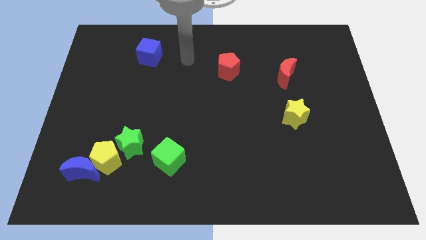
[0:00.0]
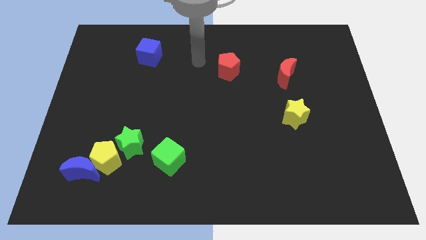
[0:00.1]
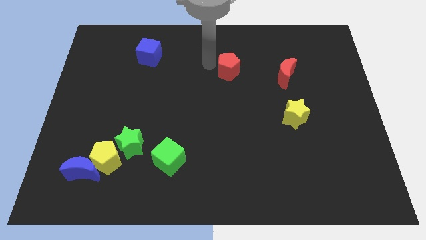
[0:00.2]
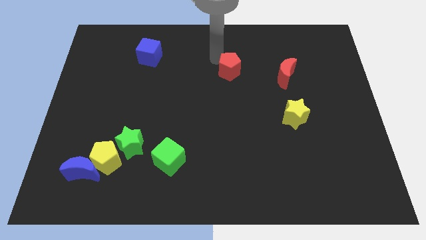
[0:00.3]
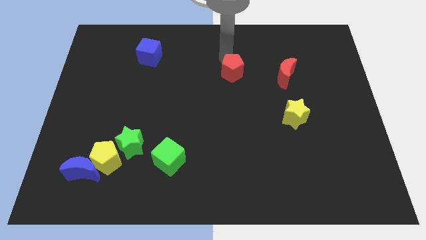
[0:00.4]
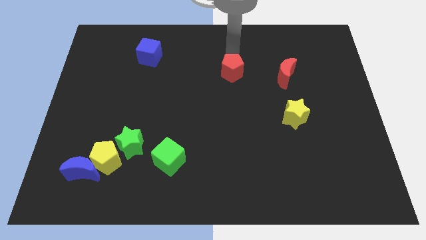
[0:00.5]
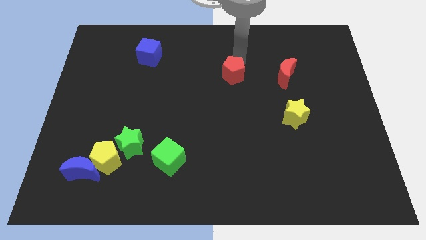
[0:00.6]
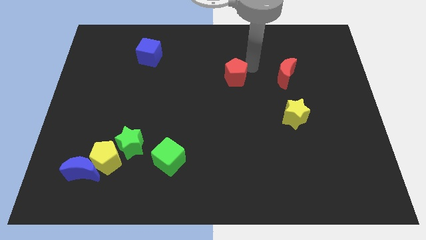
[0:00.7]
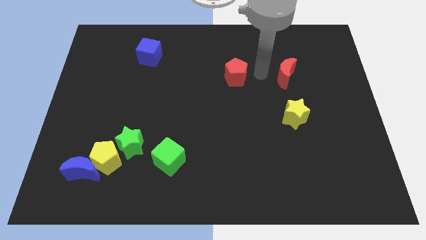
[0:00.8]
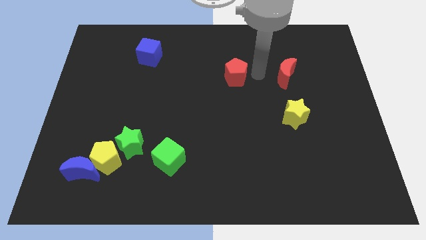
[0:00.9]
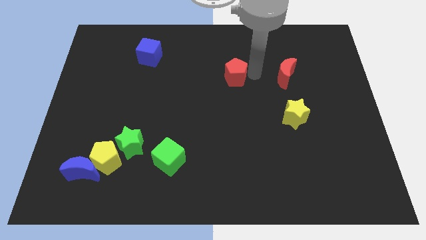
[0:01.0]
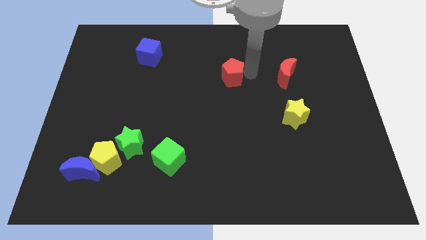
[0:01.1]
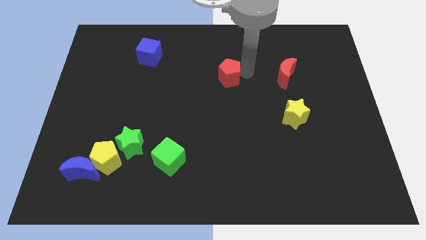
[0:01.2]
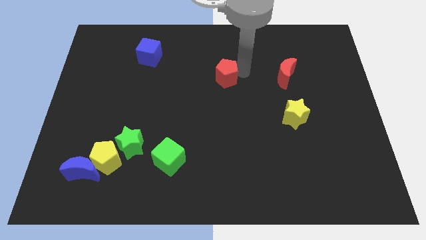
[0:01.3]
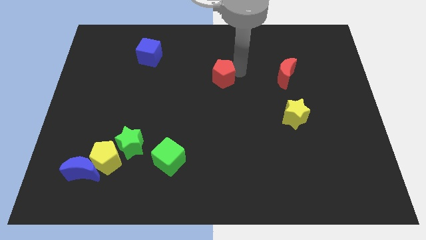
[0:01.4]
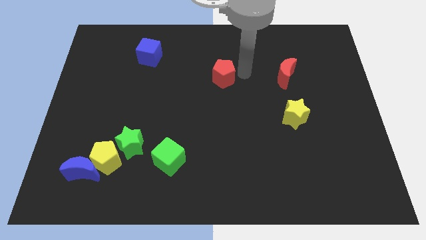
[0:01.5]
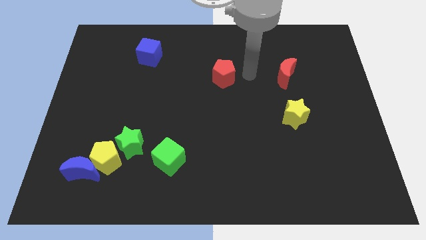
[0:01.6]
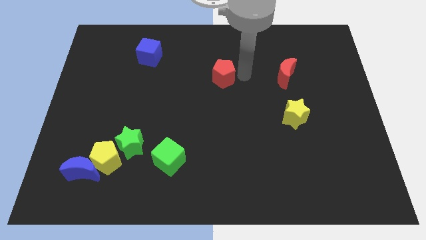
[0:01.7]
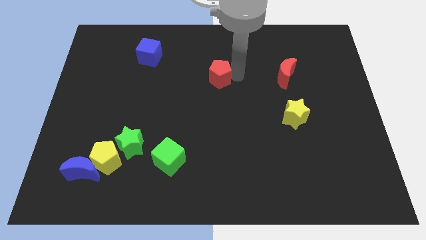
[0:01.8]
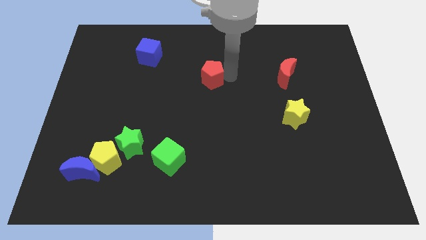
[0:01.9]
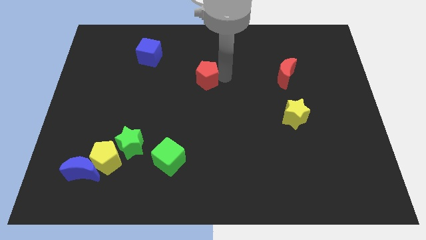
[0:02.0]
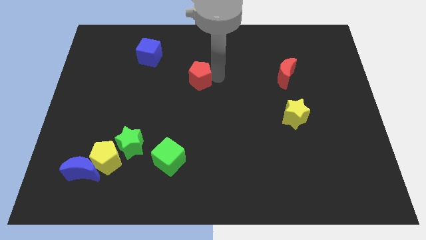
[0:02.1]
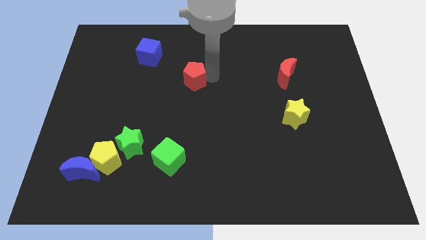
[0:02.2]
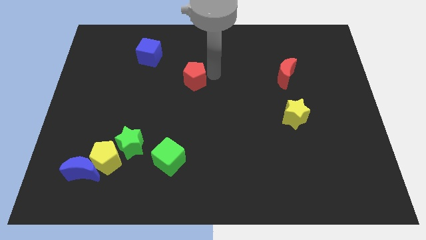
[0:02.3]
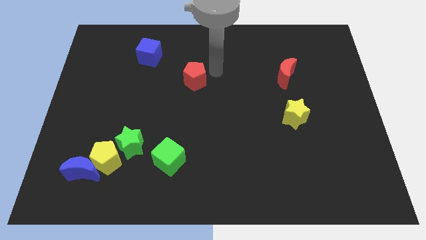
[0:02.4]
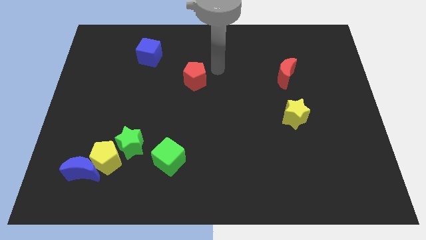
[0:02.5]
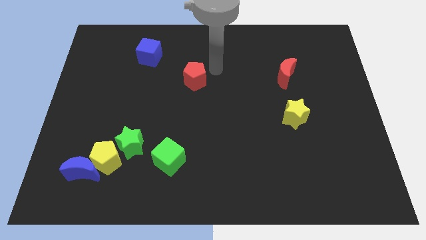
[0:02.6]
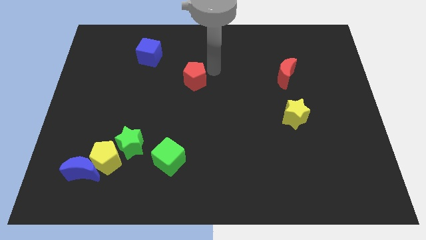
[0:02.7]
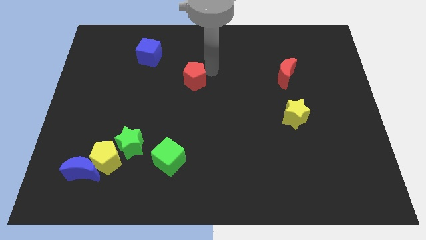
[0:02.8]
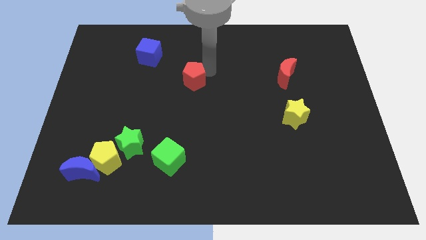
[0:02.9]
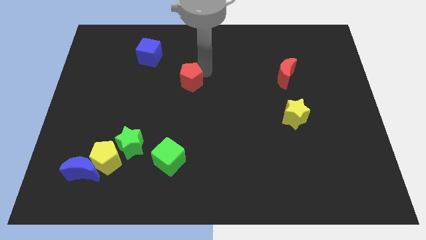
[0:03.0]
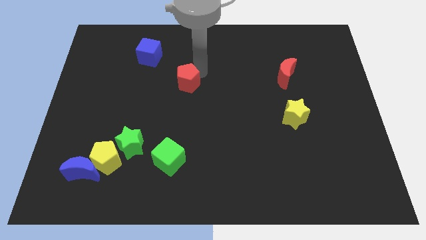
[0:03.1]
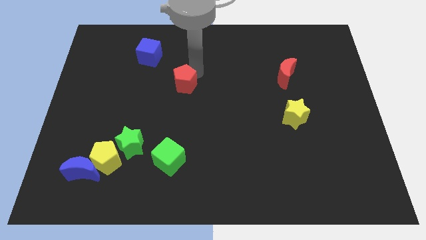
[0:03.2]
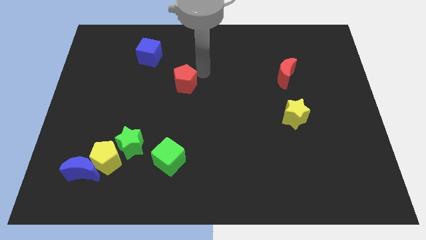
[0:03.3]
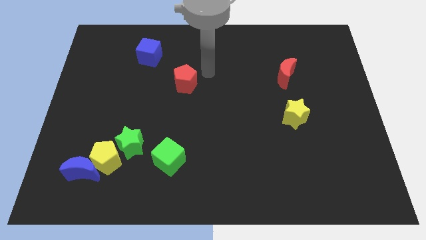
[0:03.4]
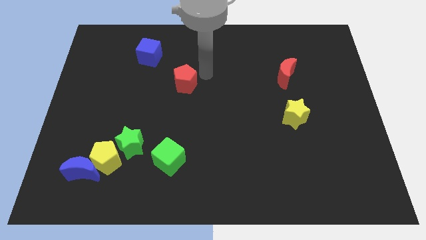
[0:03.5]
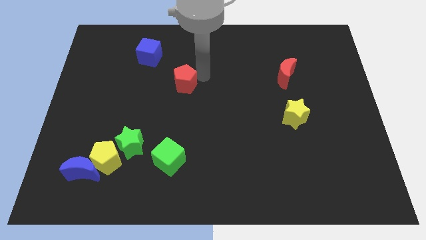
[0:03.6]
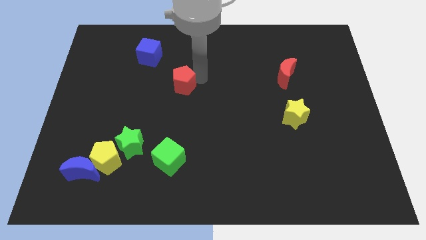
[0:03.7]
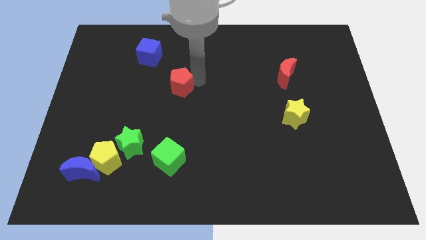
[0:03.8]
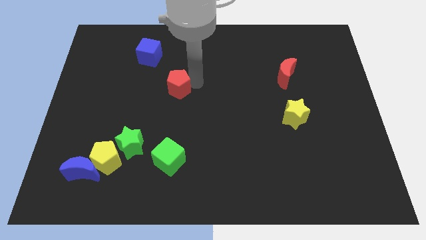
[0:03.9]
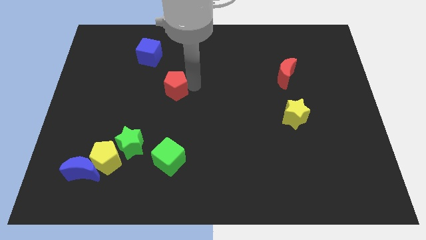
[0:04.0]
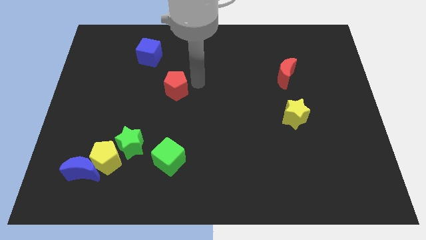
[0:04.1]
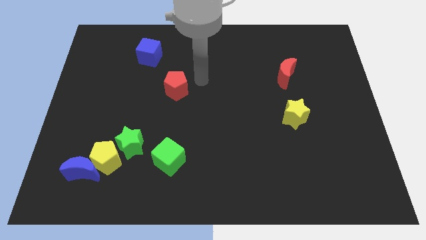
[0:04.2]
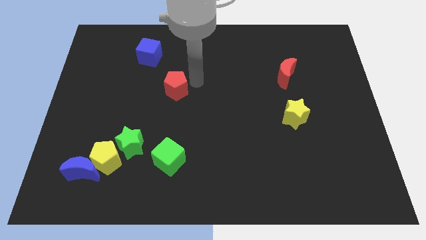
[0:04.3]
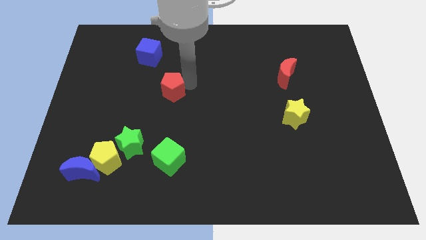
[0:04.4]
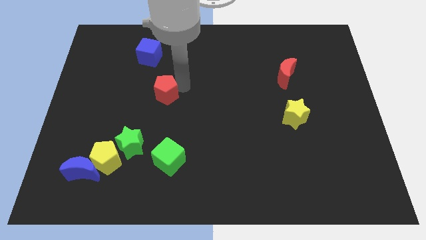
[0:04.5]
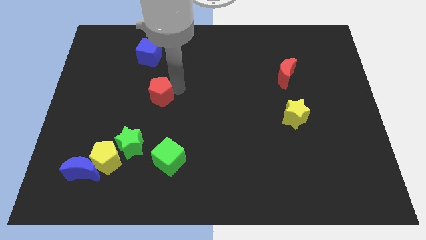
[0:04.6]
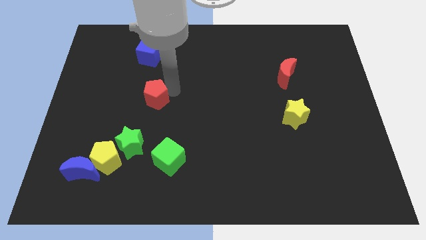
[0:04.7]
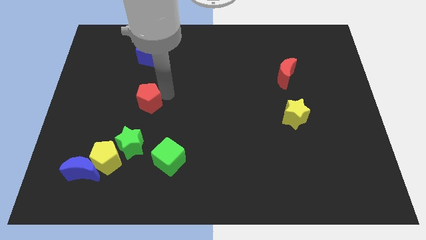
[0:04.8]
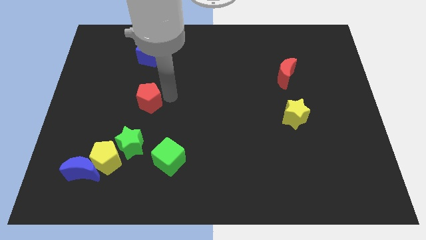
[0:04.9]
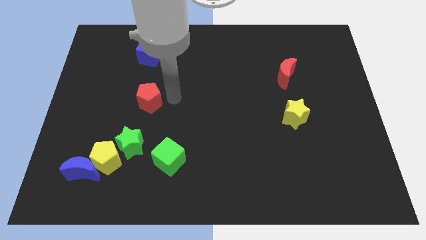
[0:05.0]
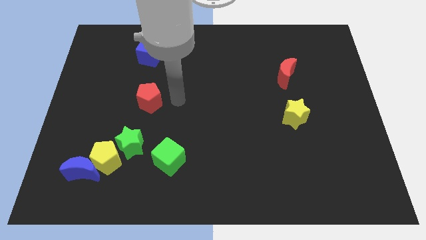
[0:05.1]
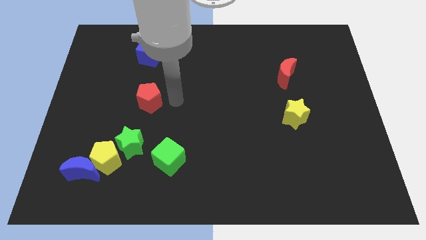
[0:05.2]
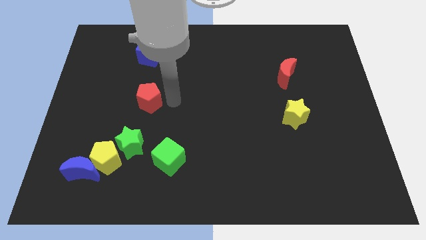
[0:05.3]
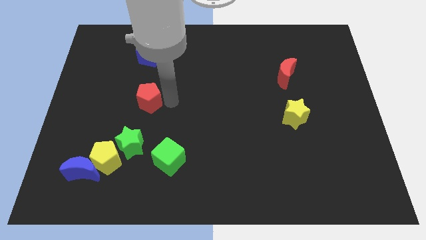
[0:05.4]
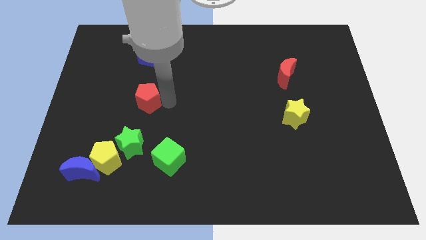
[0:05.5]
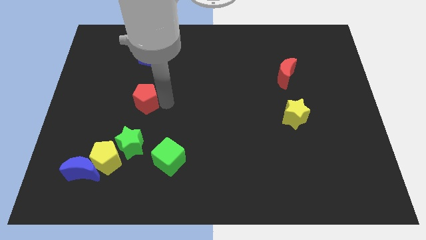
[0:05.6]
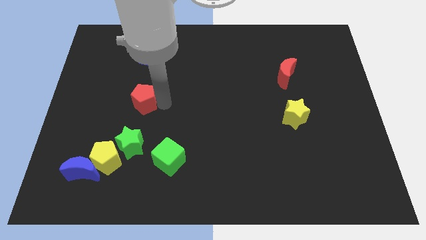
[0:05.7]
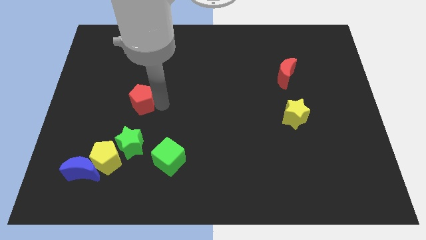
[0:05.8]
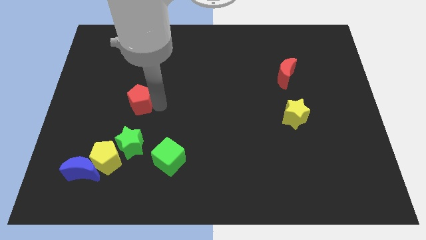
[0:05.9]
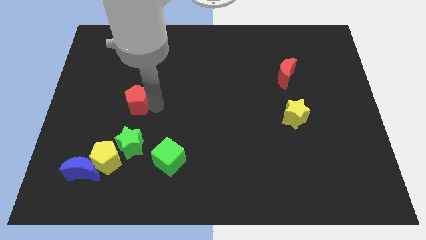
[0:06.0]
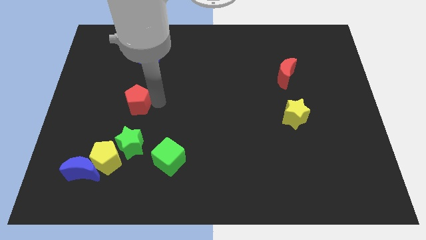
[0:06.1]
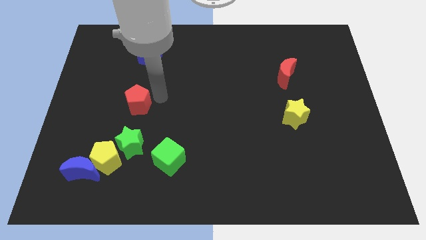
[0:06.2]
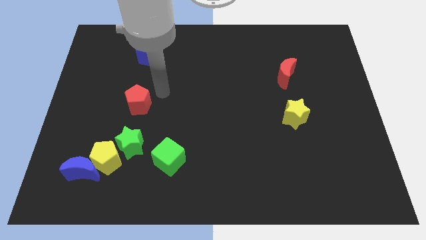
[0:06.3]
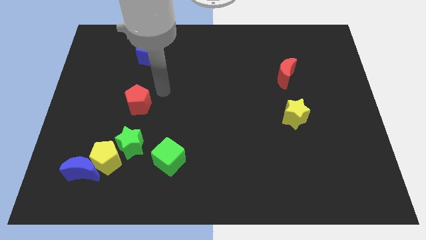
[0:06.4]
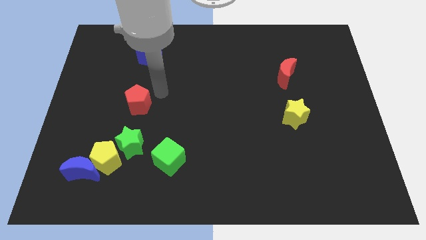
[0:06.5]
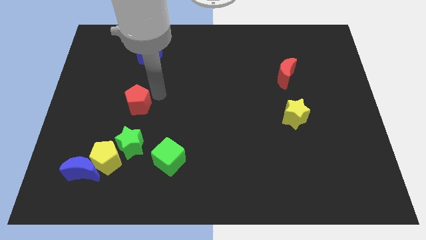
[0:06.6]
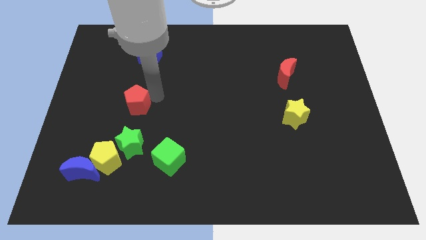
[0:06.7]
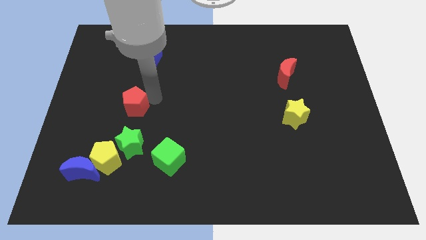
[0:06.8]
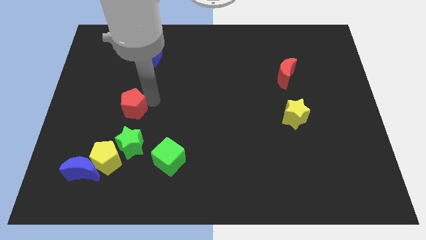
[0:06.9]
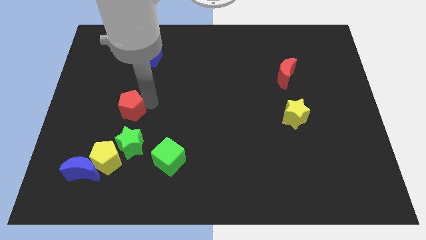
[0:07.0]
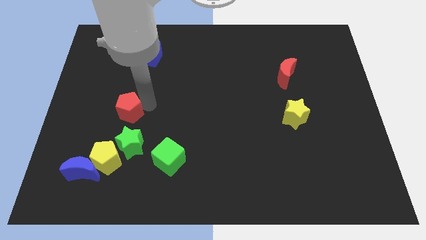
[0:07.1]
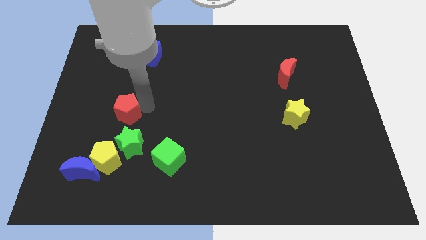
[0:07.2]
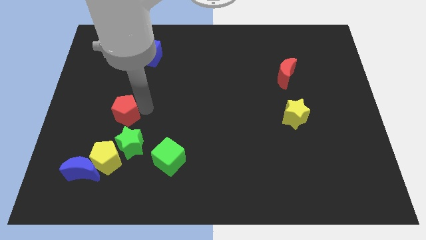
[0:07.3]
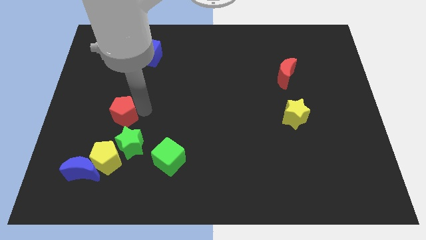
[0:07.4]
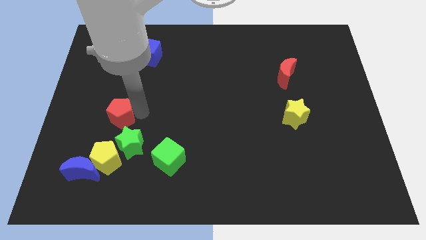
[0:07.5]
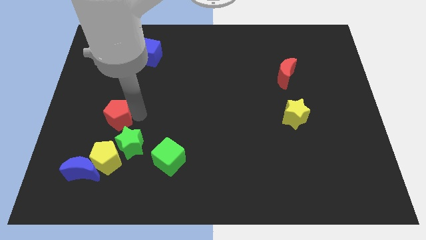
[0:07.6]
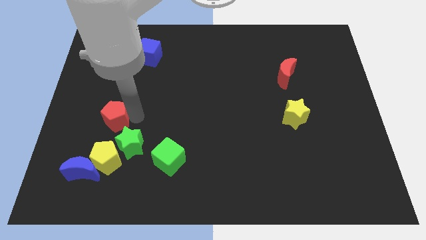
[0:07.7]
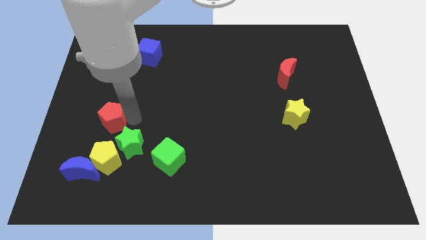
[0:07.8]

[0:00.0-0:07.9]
put the red pentagon above the blue moon
